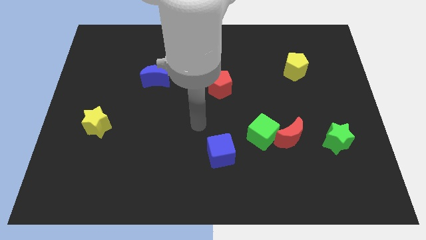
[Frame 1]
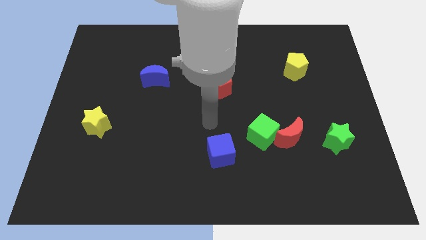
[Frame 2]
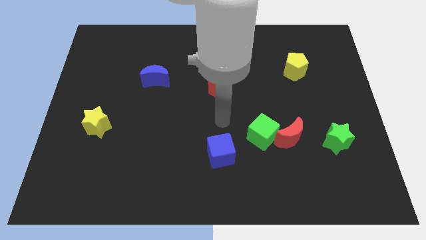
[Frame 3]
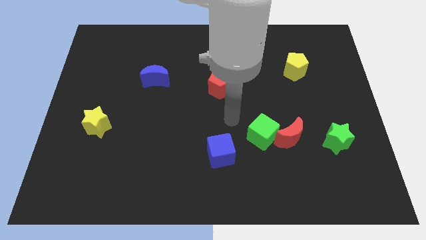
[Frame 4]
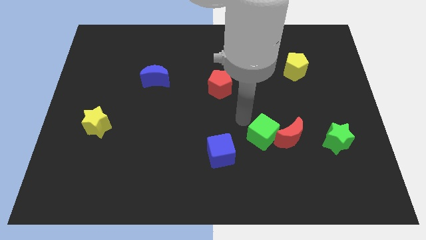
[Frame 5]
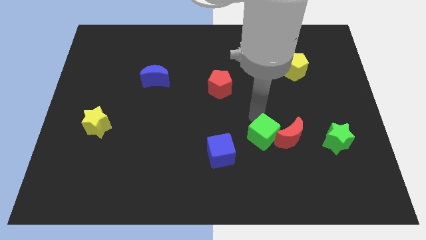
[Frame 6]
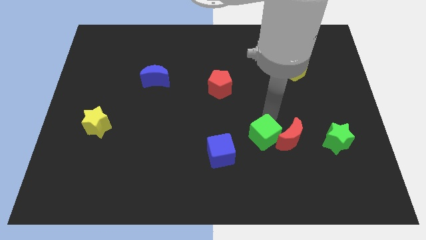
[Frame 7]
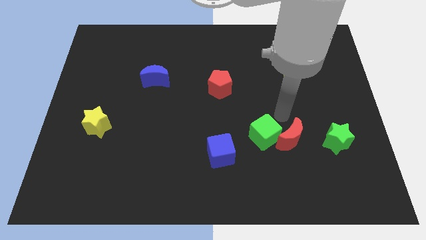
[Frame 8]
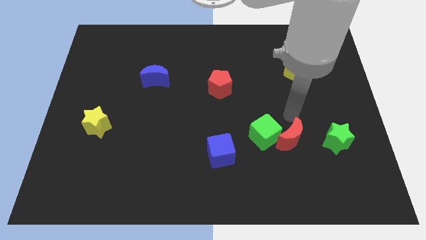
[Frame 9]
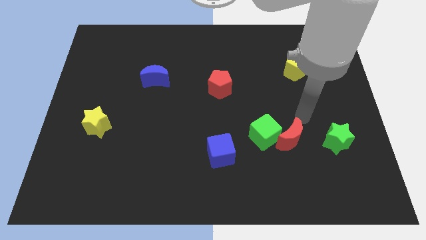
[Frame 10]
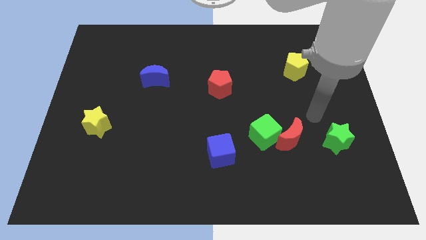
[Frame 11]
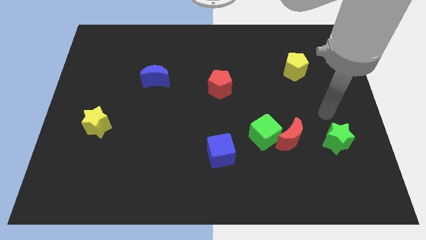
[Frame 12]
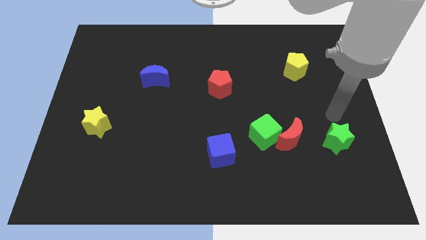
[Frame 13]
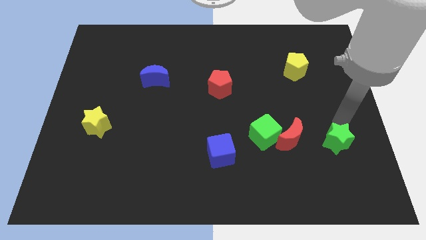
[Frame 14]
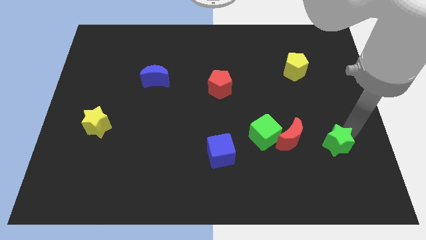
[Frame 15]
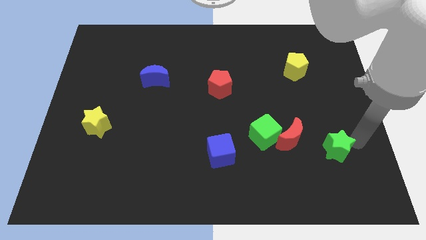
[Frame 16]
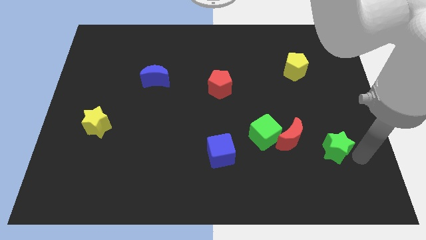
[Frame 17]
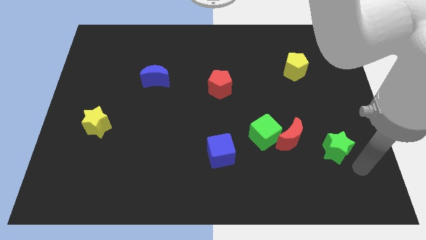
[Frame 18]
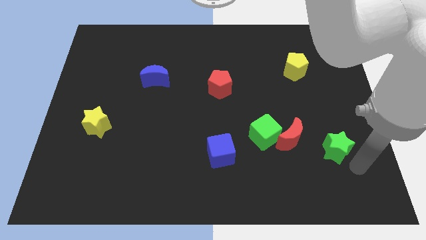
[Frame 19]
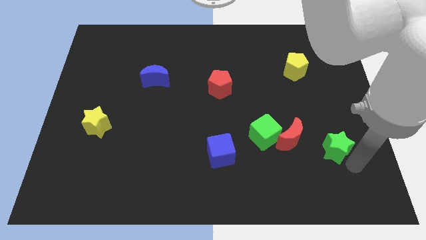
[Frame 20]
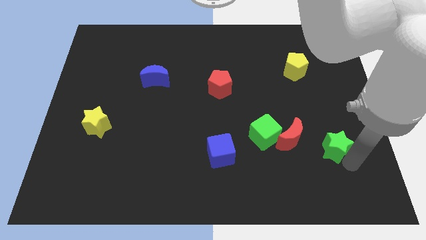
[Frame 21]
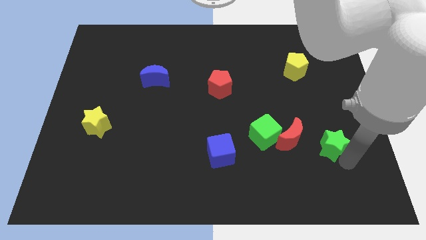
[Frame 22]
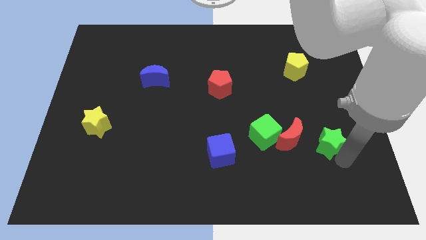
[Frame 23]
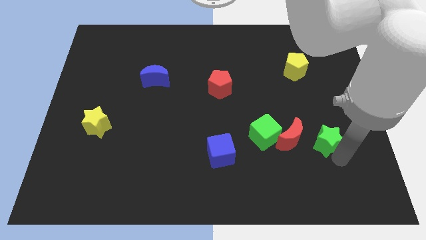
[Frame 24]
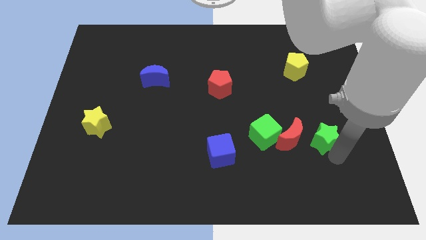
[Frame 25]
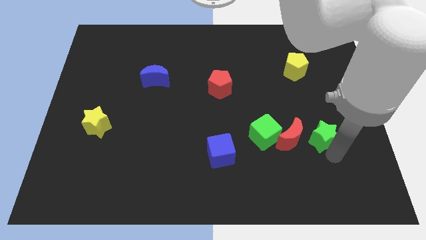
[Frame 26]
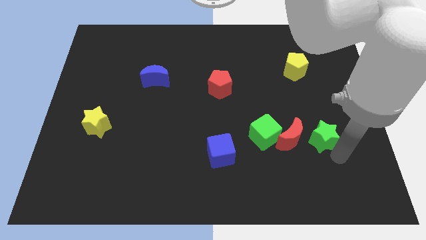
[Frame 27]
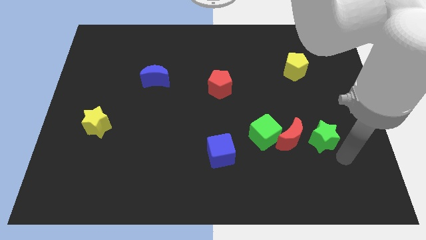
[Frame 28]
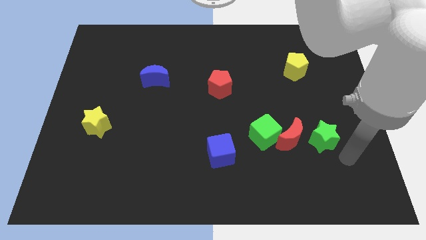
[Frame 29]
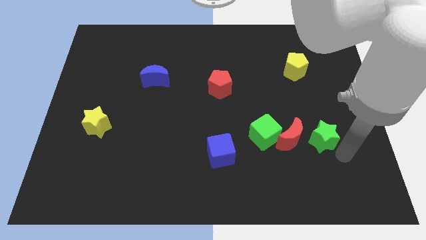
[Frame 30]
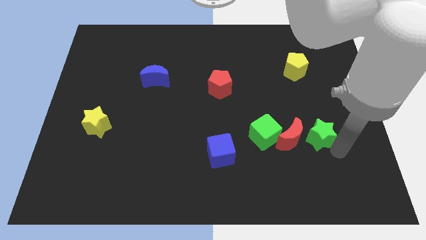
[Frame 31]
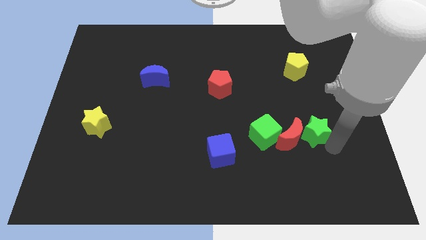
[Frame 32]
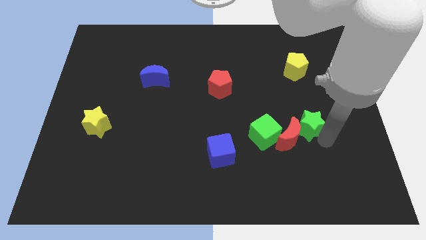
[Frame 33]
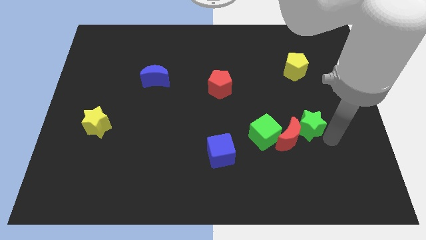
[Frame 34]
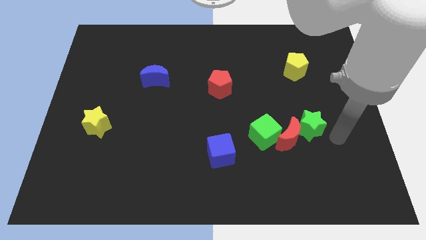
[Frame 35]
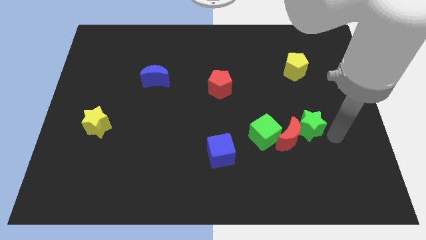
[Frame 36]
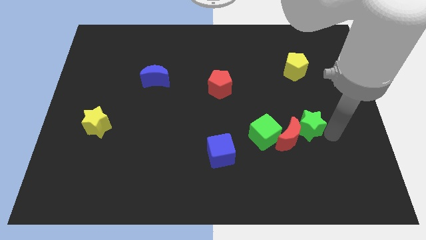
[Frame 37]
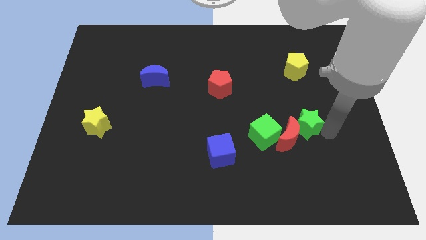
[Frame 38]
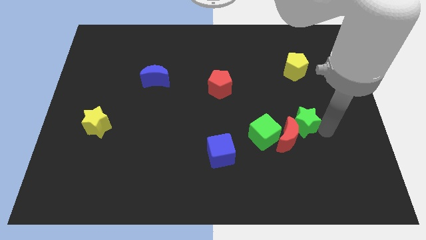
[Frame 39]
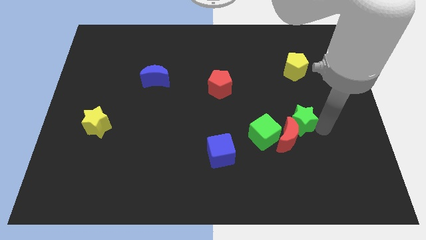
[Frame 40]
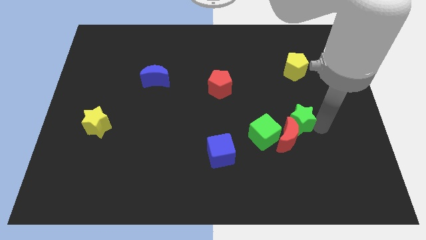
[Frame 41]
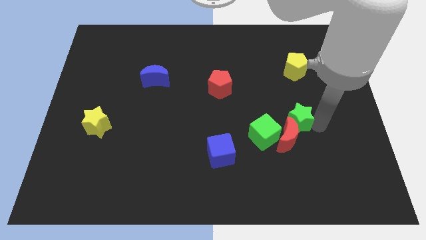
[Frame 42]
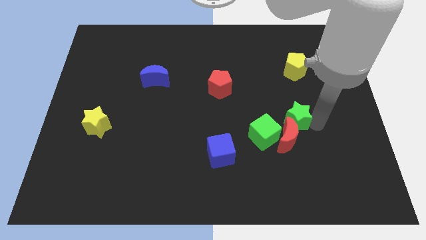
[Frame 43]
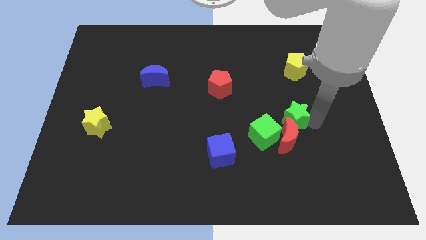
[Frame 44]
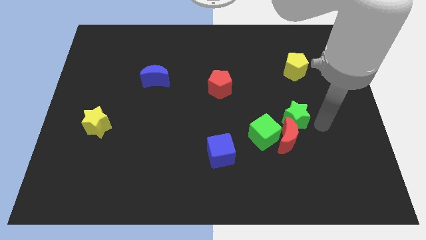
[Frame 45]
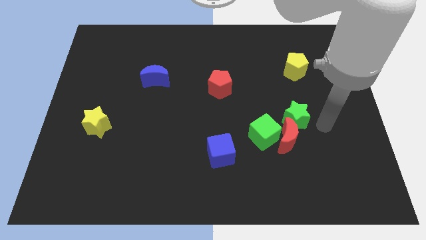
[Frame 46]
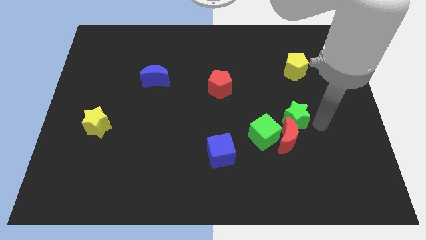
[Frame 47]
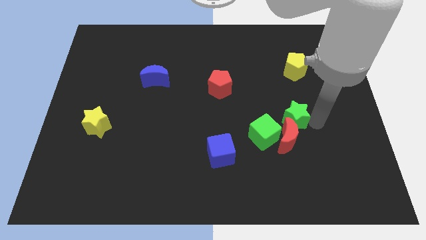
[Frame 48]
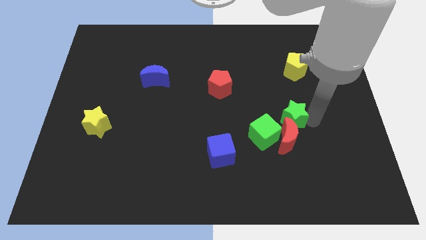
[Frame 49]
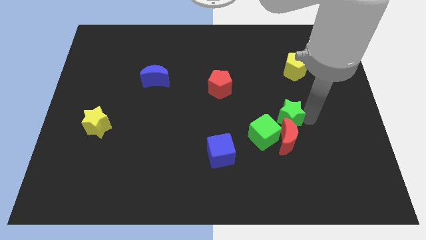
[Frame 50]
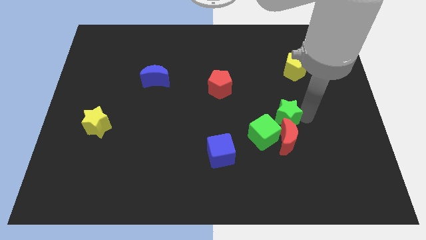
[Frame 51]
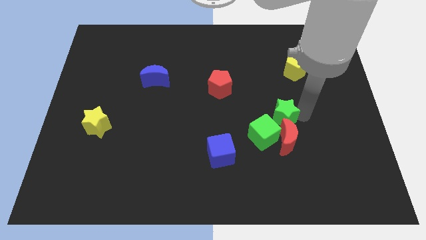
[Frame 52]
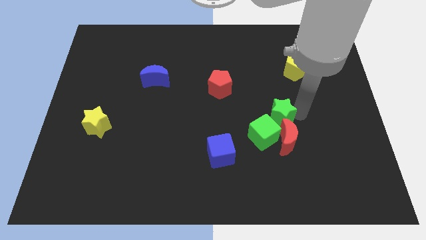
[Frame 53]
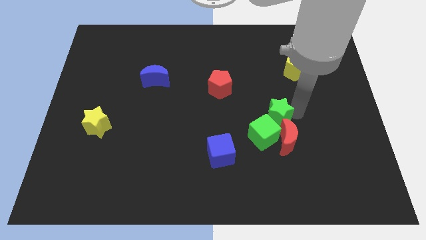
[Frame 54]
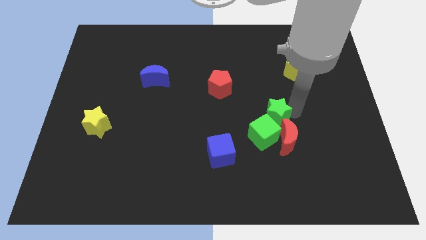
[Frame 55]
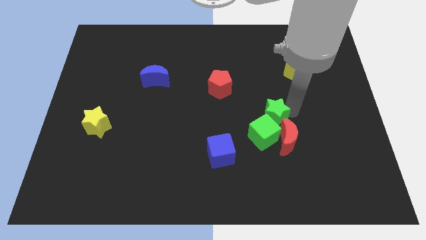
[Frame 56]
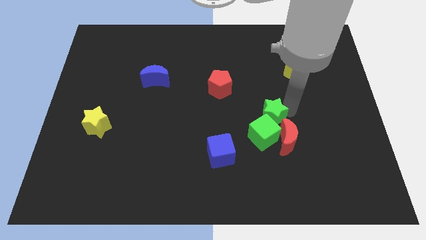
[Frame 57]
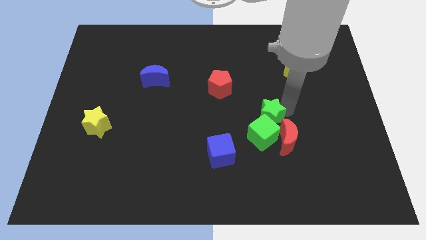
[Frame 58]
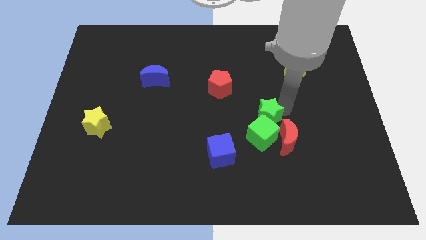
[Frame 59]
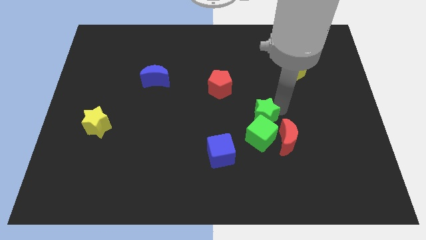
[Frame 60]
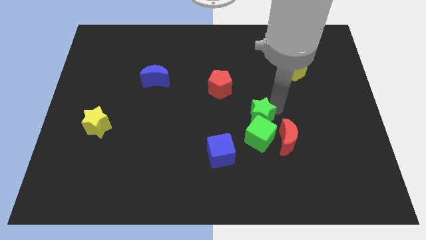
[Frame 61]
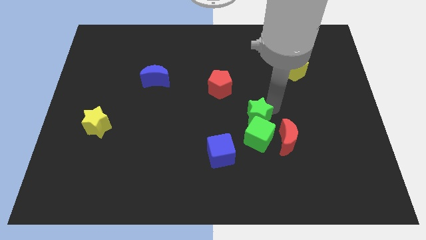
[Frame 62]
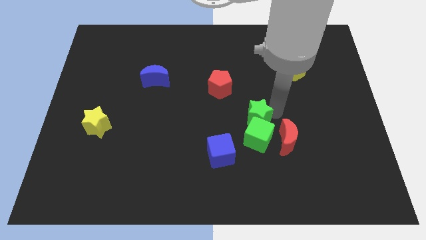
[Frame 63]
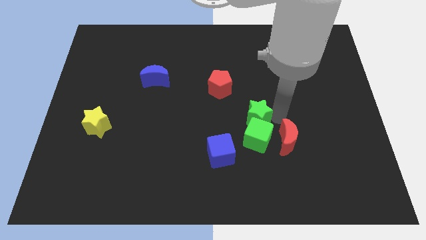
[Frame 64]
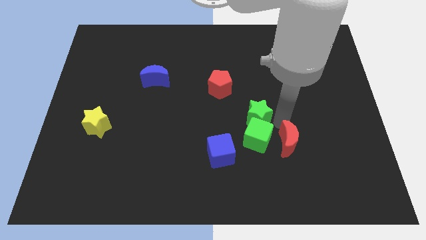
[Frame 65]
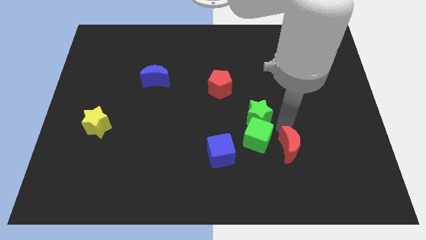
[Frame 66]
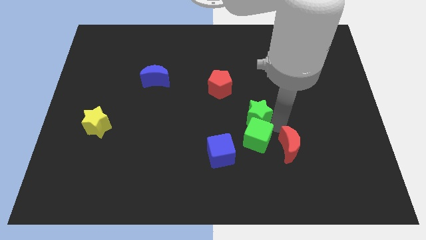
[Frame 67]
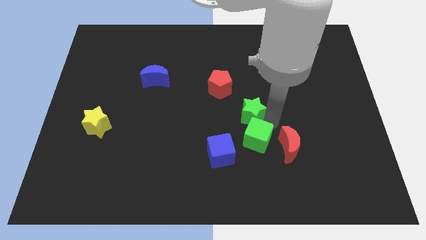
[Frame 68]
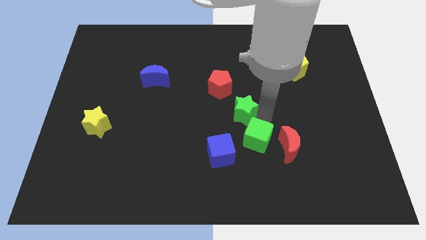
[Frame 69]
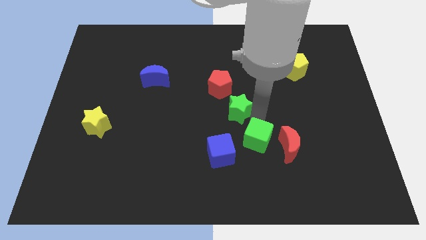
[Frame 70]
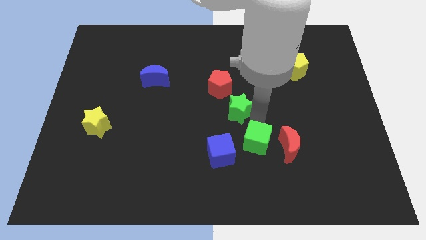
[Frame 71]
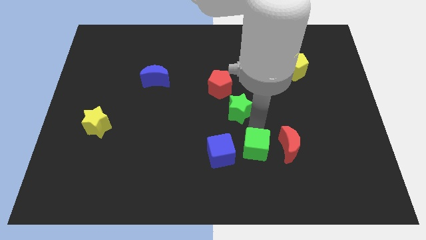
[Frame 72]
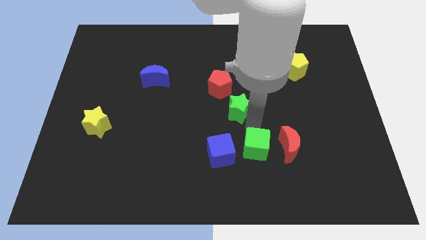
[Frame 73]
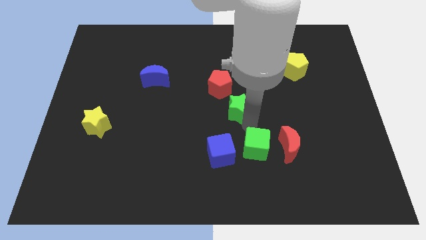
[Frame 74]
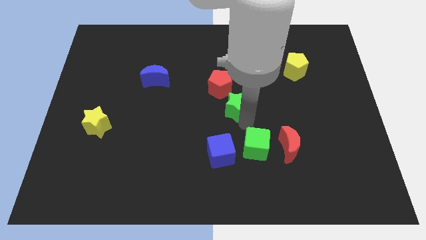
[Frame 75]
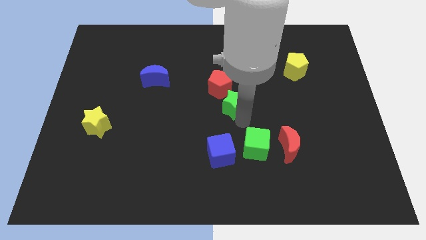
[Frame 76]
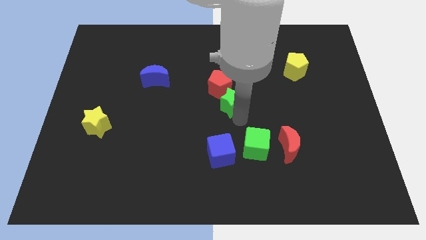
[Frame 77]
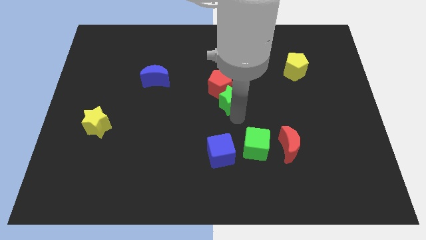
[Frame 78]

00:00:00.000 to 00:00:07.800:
push the green star next to the red pentagon

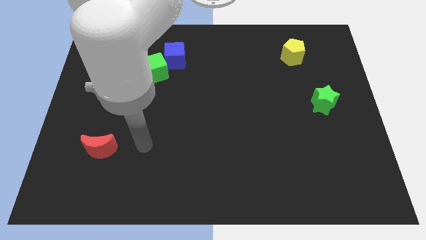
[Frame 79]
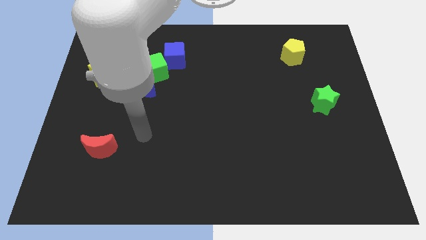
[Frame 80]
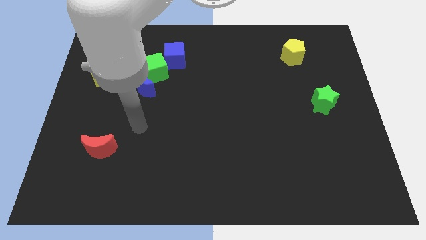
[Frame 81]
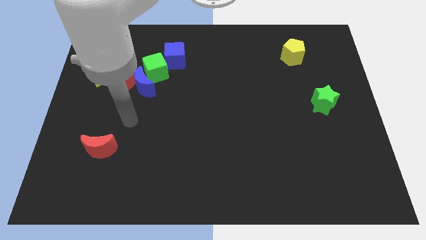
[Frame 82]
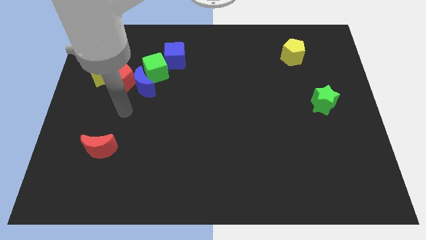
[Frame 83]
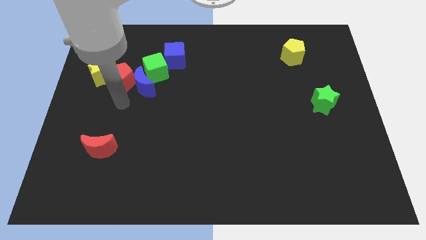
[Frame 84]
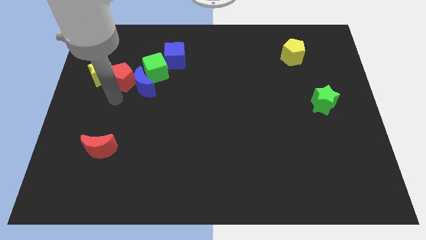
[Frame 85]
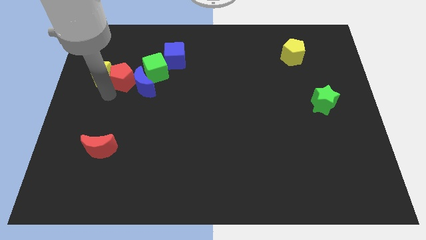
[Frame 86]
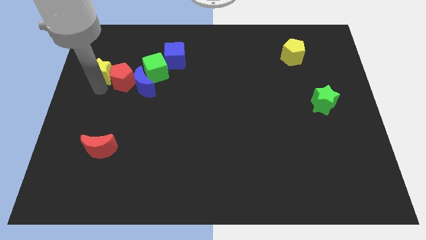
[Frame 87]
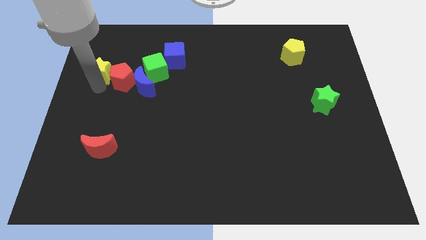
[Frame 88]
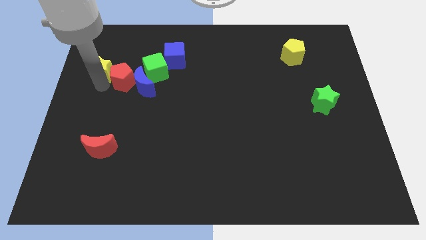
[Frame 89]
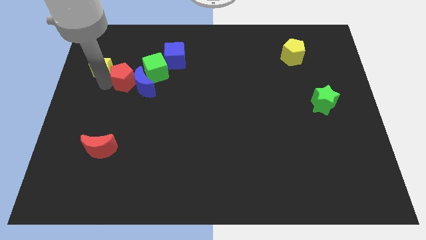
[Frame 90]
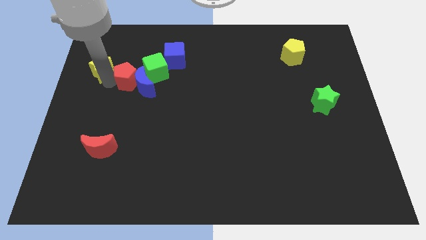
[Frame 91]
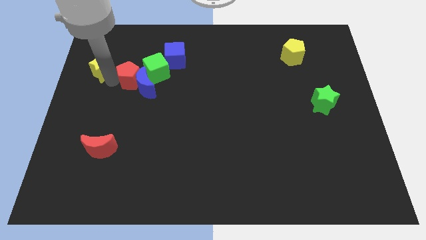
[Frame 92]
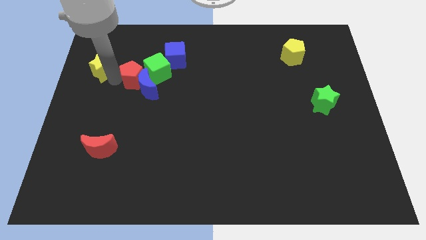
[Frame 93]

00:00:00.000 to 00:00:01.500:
slide the red pentagon close to the green cube
